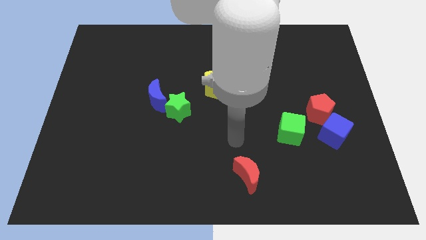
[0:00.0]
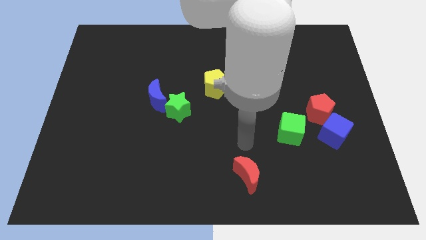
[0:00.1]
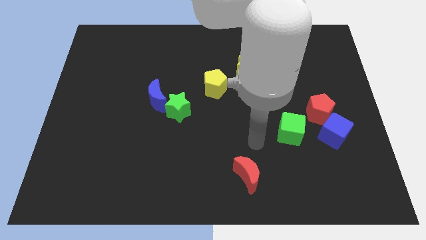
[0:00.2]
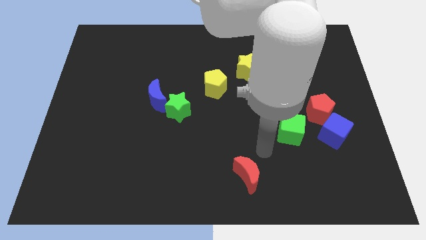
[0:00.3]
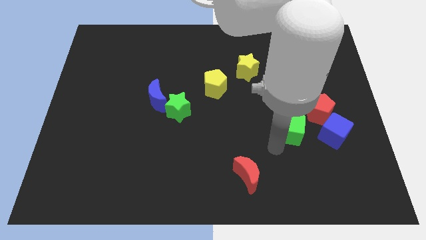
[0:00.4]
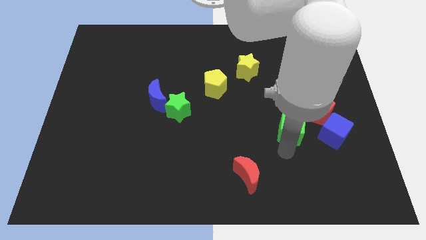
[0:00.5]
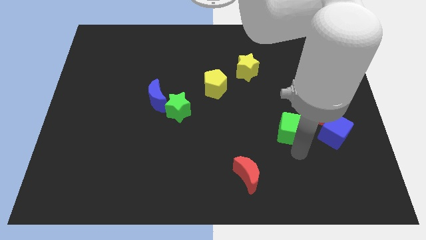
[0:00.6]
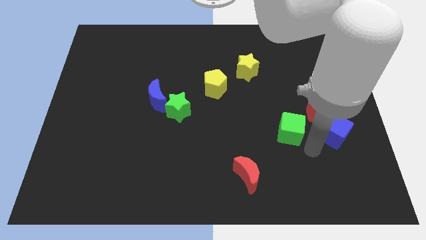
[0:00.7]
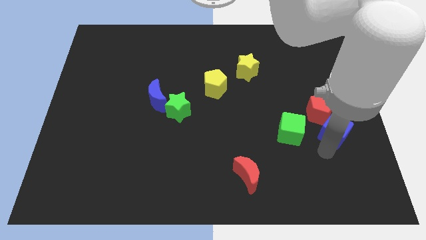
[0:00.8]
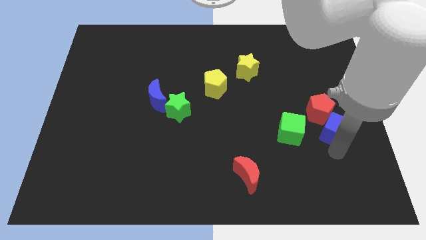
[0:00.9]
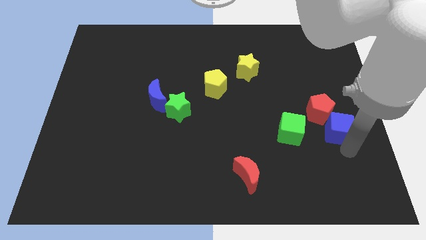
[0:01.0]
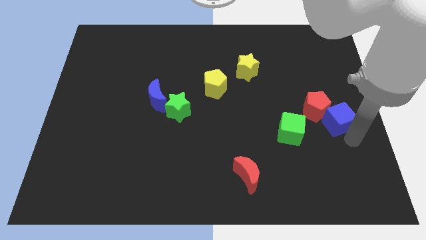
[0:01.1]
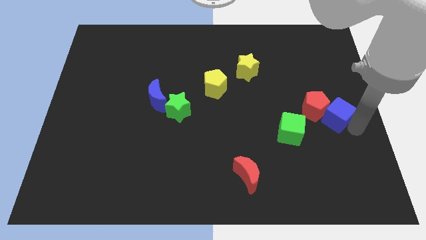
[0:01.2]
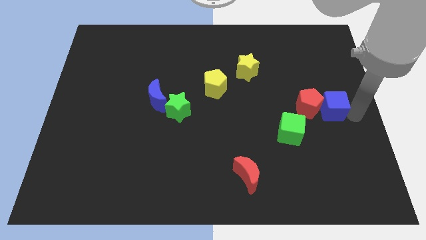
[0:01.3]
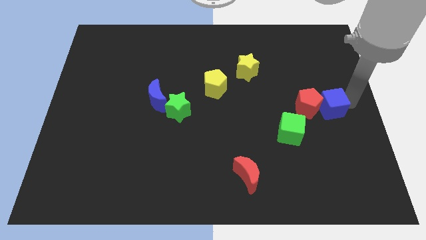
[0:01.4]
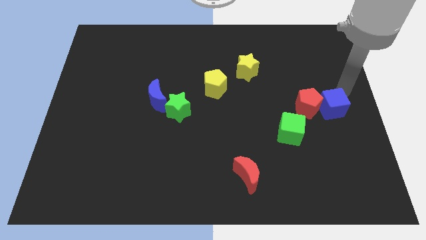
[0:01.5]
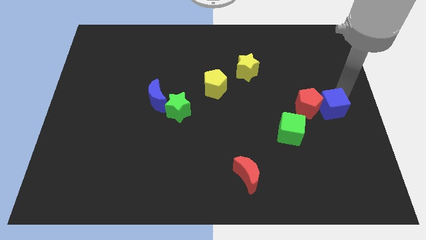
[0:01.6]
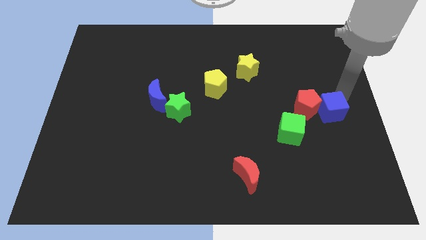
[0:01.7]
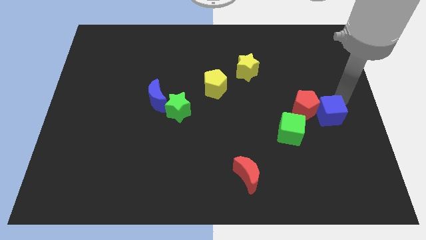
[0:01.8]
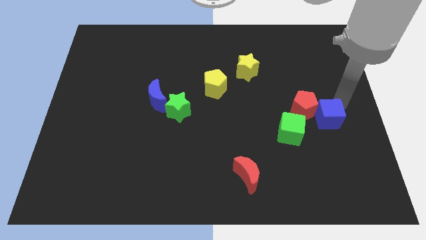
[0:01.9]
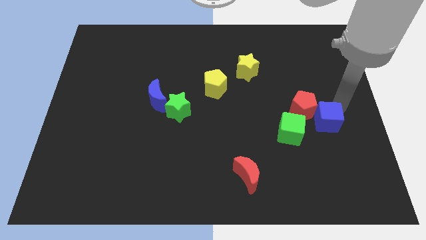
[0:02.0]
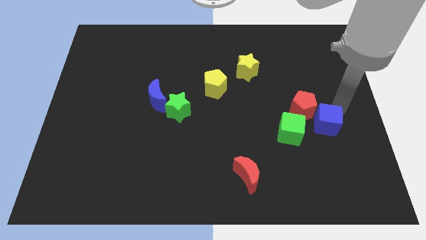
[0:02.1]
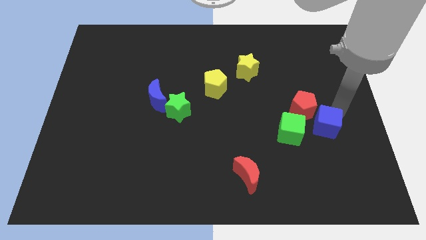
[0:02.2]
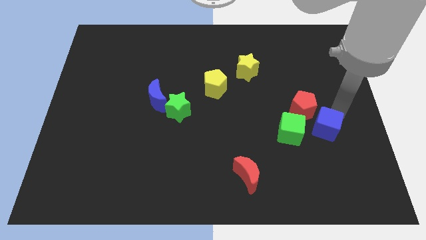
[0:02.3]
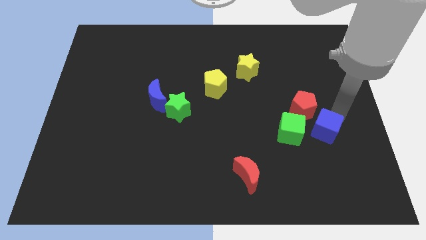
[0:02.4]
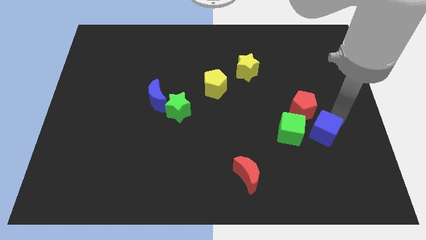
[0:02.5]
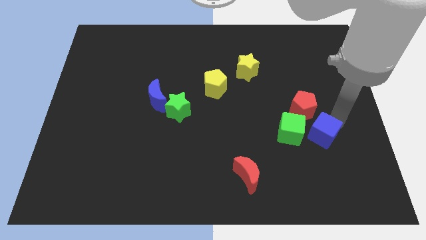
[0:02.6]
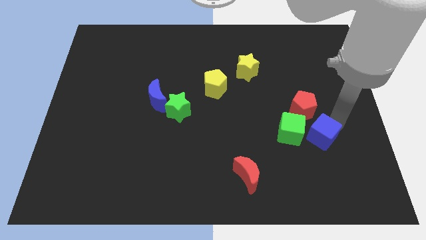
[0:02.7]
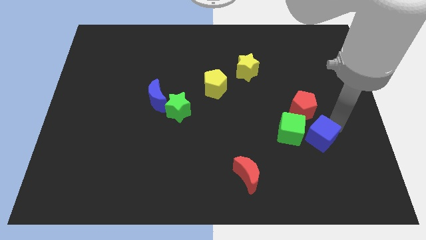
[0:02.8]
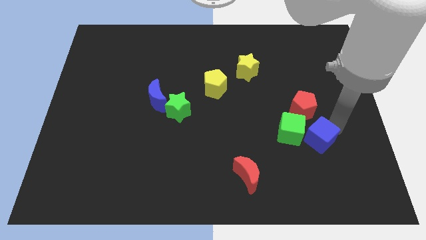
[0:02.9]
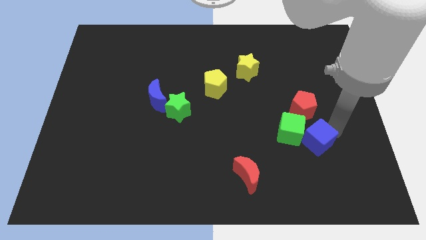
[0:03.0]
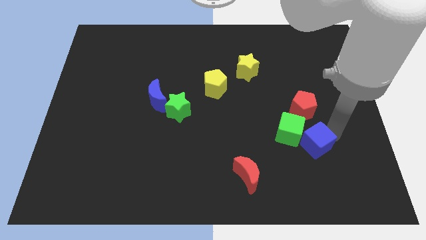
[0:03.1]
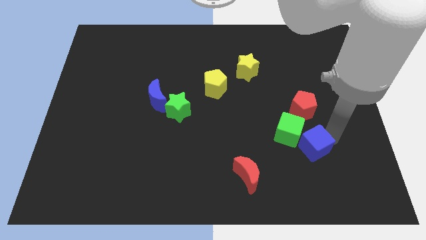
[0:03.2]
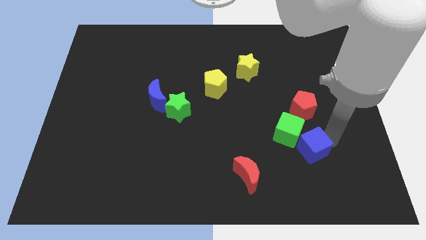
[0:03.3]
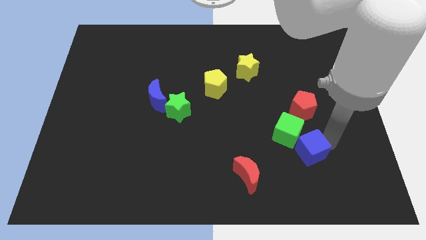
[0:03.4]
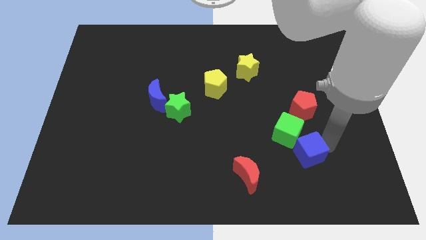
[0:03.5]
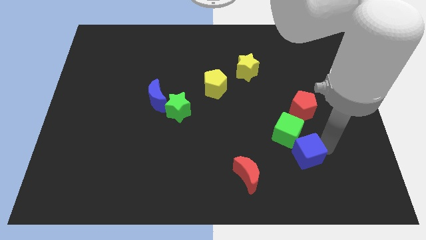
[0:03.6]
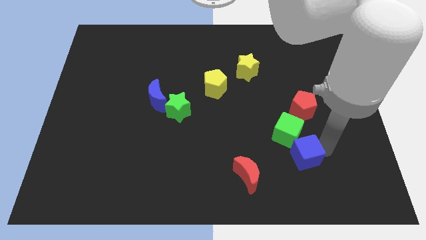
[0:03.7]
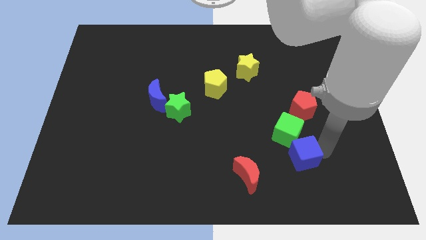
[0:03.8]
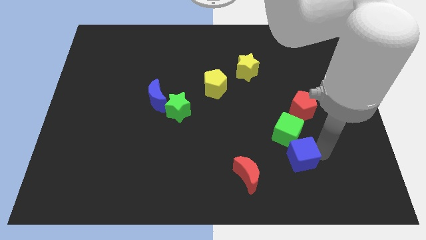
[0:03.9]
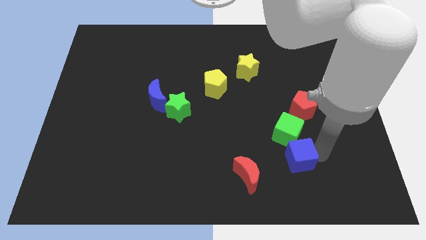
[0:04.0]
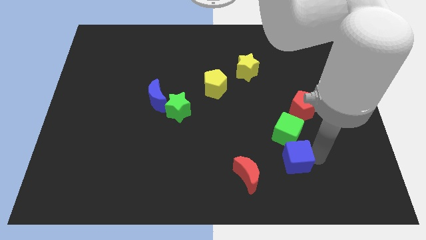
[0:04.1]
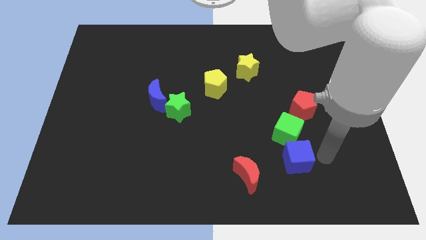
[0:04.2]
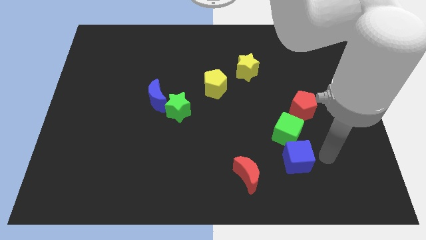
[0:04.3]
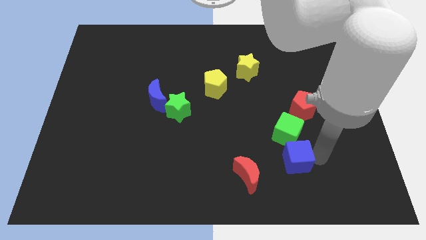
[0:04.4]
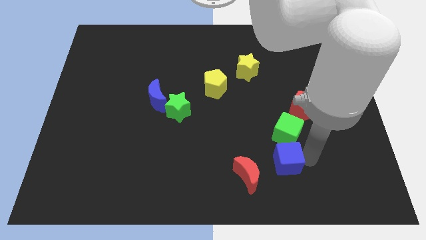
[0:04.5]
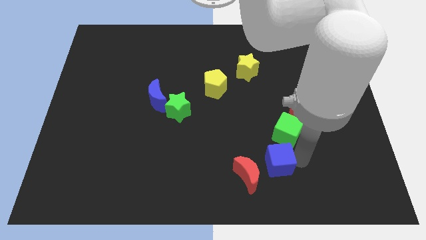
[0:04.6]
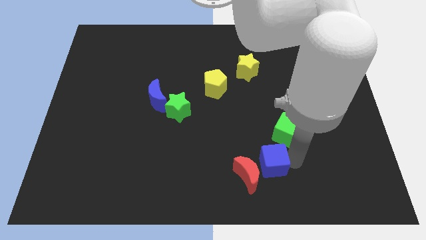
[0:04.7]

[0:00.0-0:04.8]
push the blue cube close to the red moon

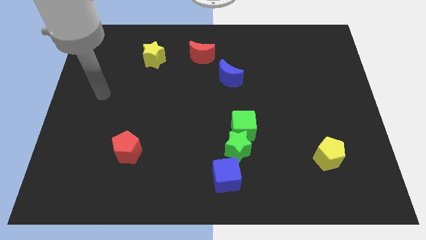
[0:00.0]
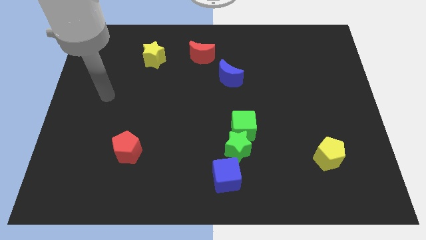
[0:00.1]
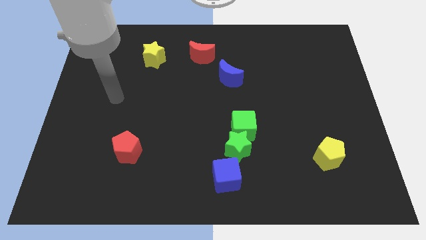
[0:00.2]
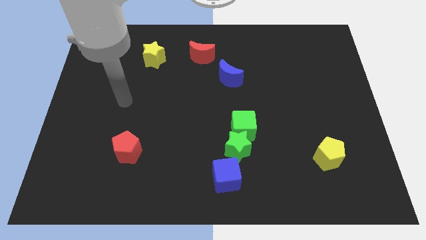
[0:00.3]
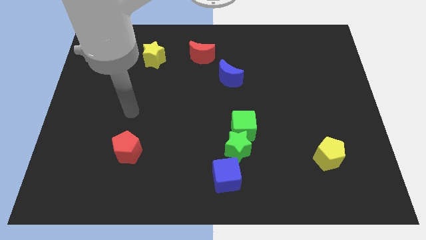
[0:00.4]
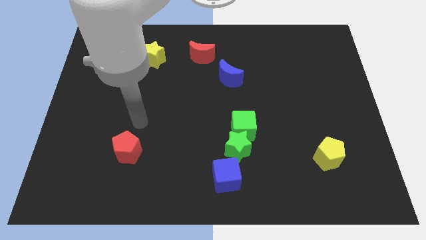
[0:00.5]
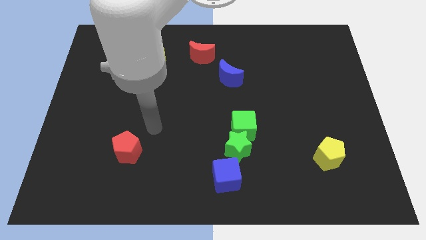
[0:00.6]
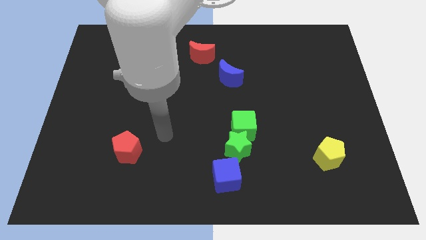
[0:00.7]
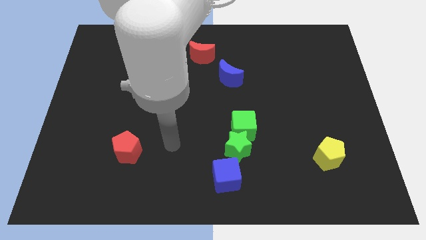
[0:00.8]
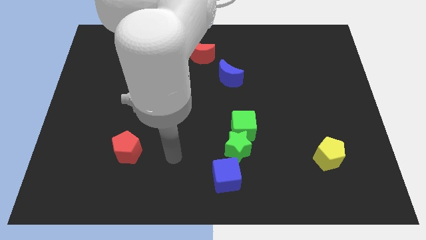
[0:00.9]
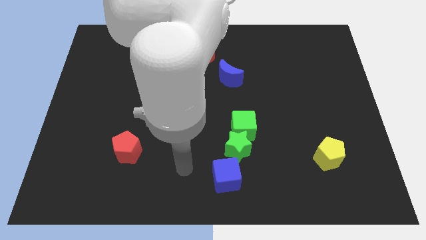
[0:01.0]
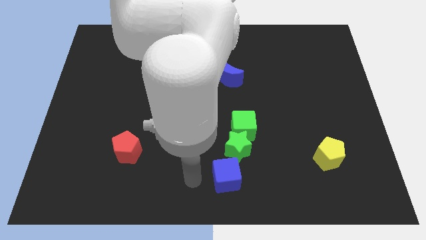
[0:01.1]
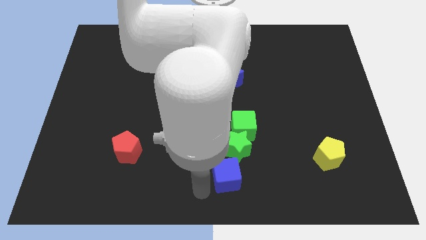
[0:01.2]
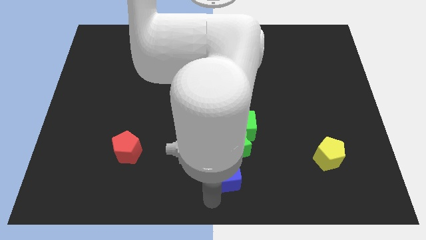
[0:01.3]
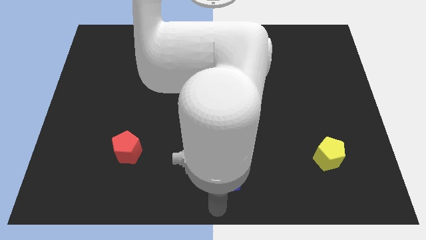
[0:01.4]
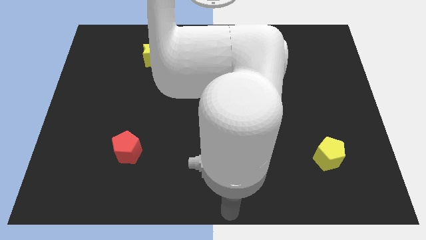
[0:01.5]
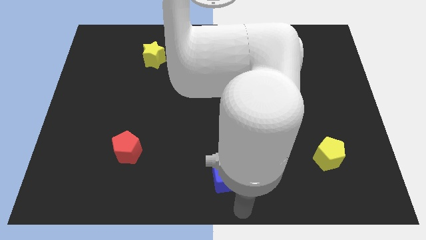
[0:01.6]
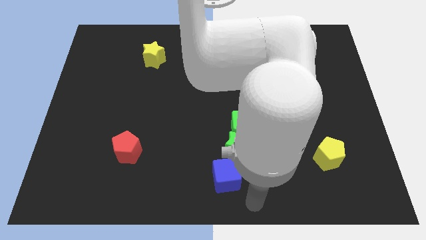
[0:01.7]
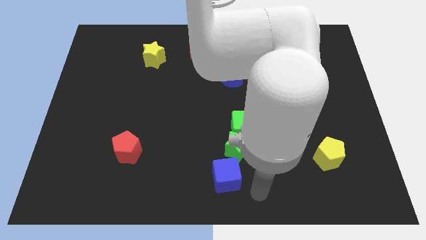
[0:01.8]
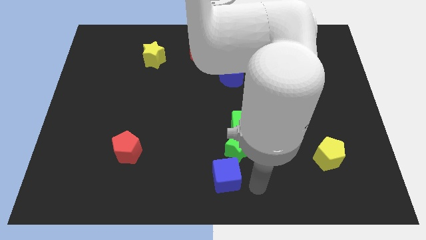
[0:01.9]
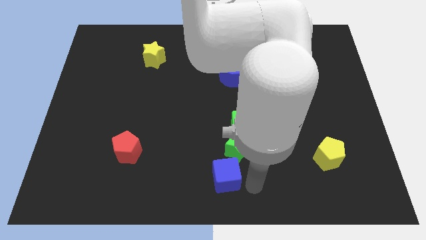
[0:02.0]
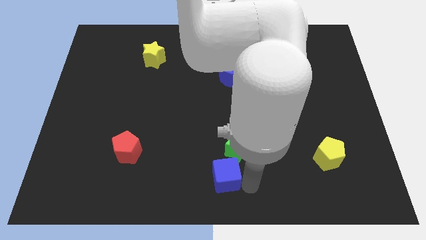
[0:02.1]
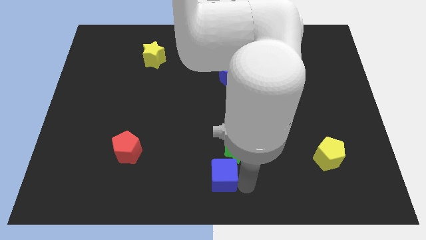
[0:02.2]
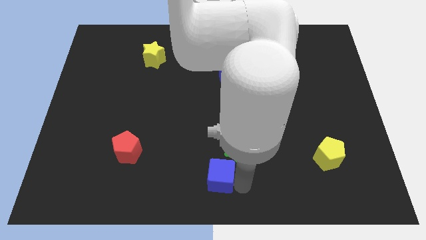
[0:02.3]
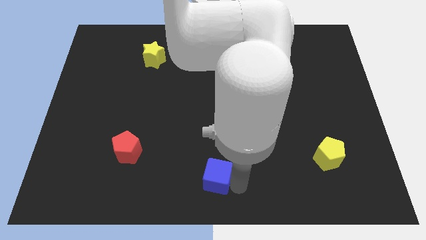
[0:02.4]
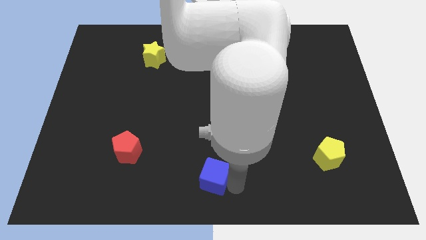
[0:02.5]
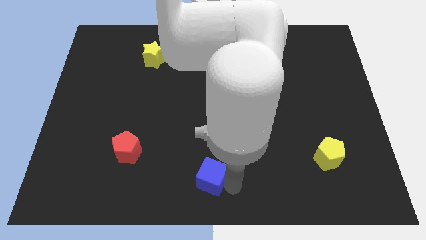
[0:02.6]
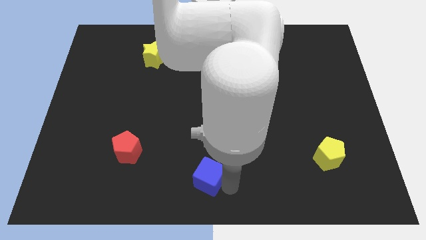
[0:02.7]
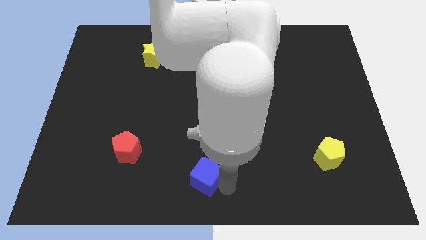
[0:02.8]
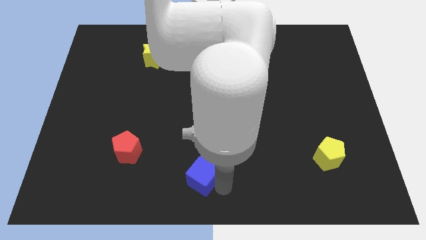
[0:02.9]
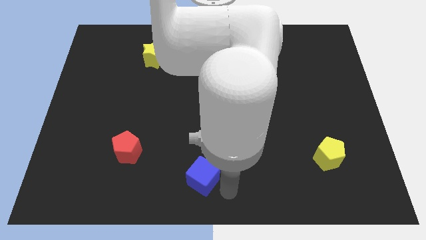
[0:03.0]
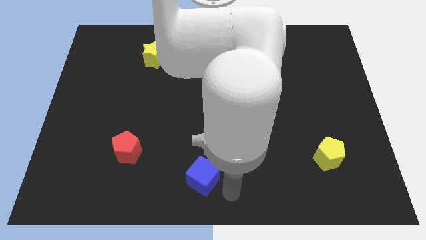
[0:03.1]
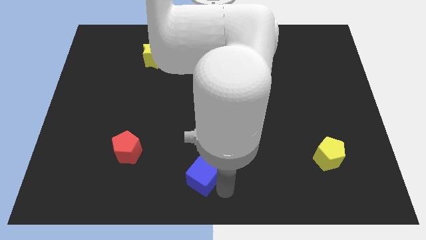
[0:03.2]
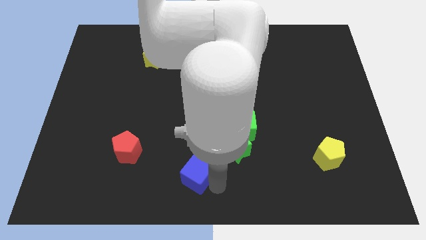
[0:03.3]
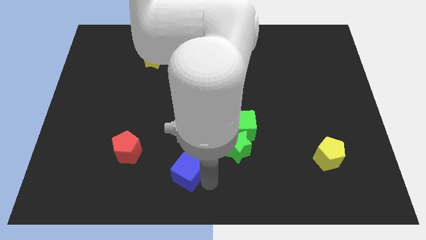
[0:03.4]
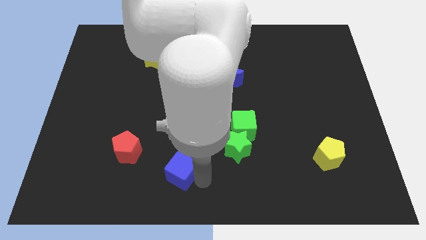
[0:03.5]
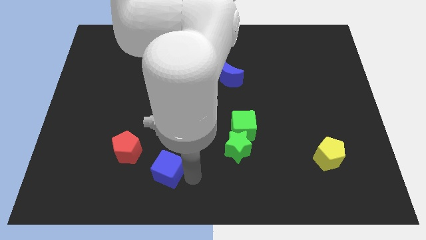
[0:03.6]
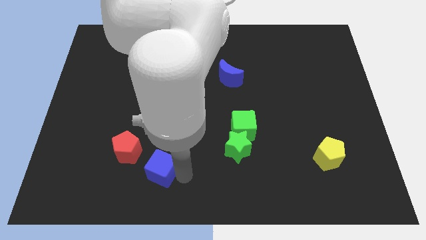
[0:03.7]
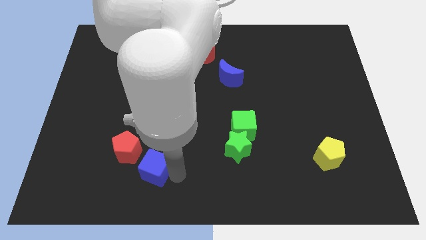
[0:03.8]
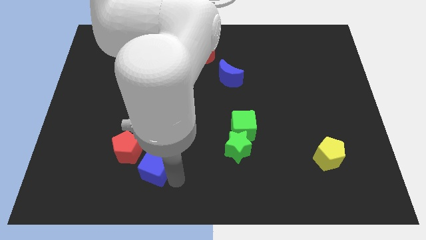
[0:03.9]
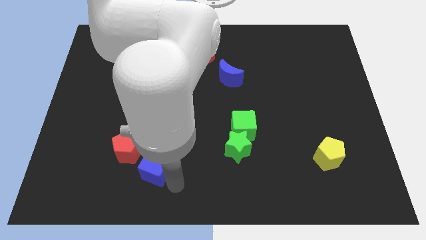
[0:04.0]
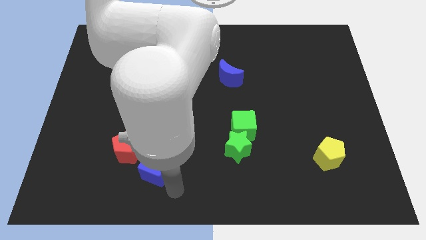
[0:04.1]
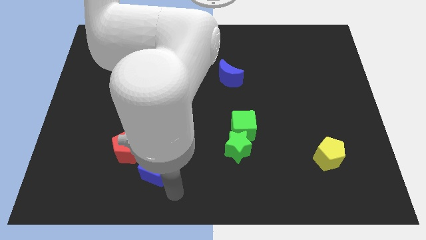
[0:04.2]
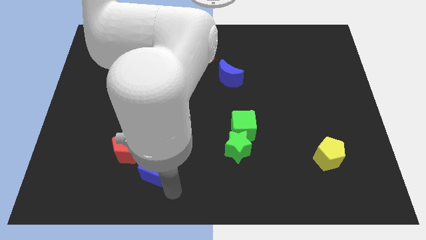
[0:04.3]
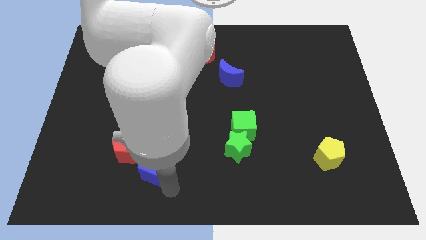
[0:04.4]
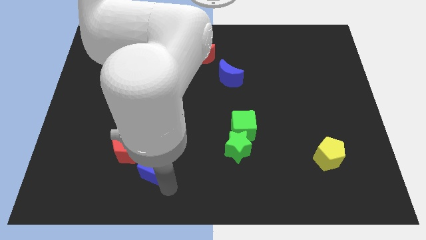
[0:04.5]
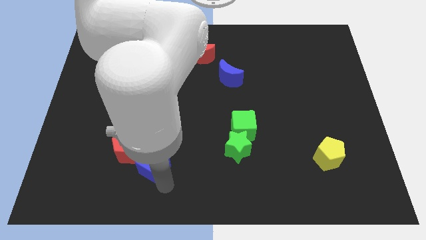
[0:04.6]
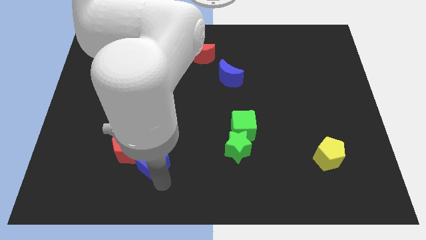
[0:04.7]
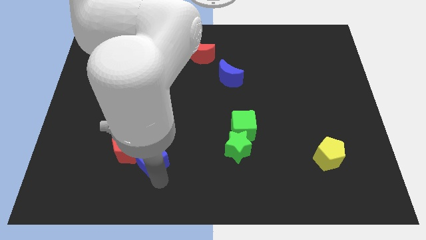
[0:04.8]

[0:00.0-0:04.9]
put the blue cube towards the red pentagon
